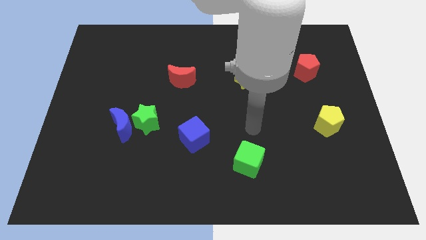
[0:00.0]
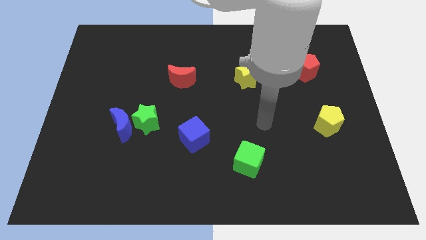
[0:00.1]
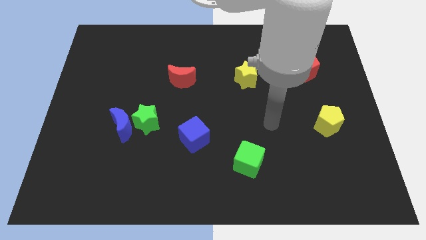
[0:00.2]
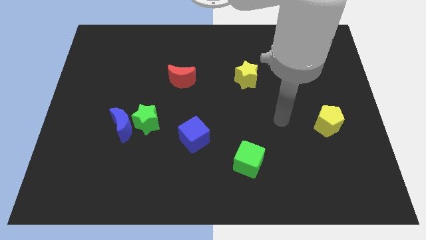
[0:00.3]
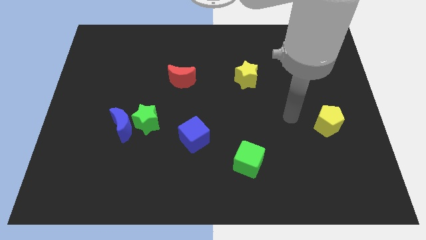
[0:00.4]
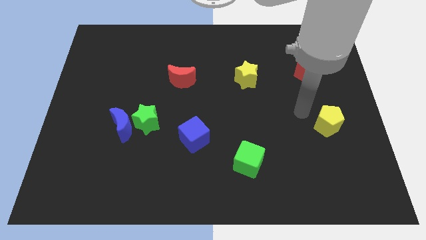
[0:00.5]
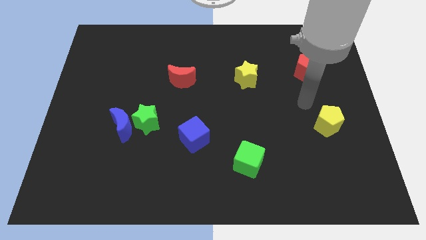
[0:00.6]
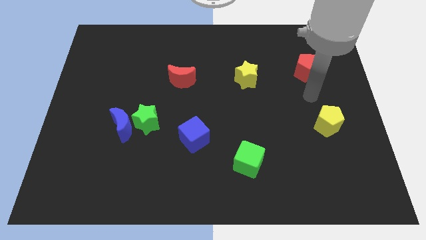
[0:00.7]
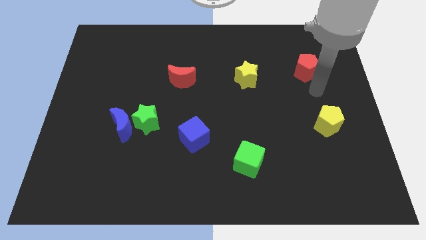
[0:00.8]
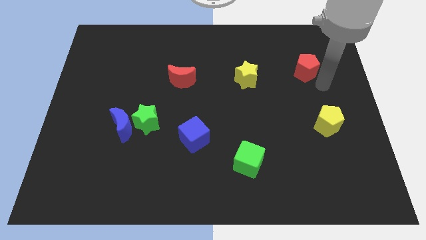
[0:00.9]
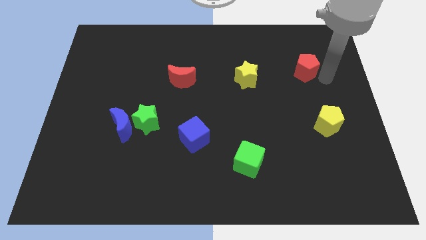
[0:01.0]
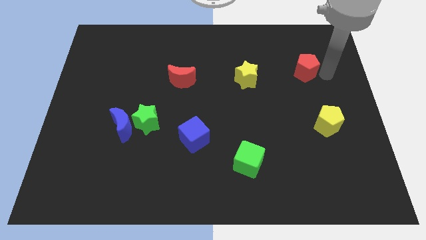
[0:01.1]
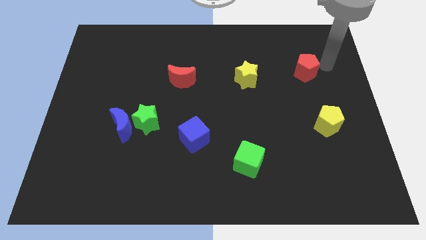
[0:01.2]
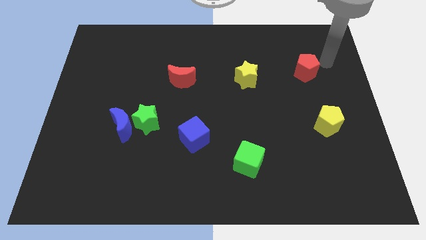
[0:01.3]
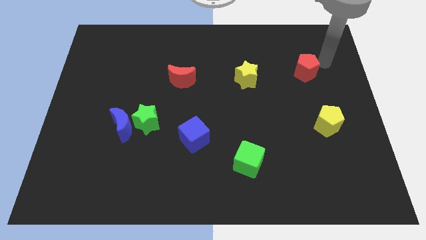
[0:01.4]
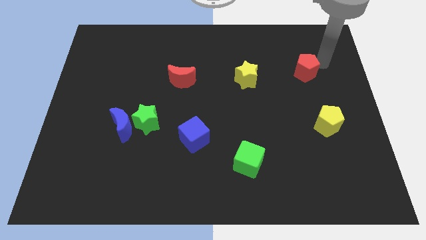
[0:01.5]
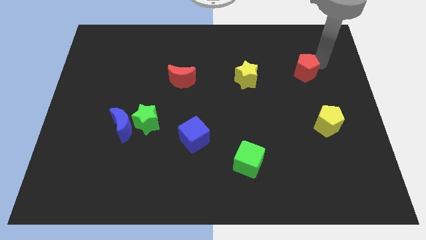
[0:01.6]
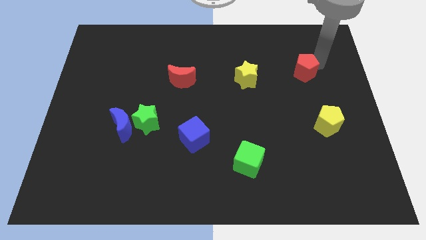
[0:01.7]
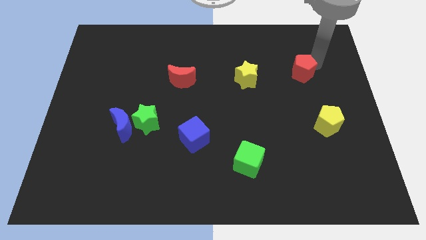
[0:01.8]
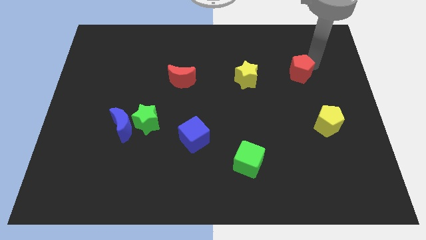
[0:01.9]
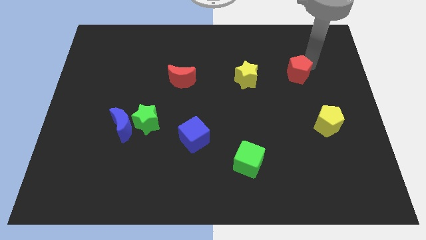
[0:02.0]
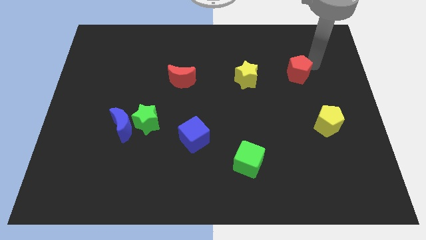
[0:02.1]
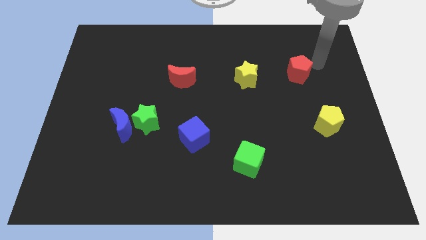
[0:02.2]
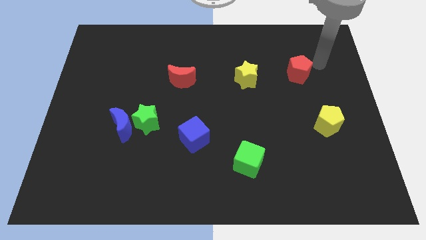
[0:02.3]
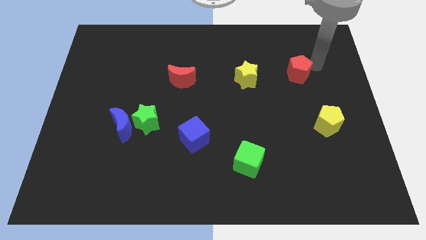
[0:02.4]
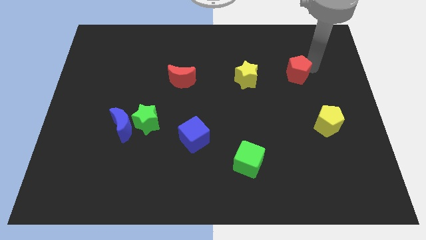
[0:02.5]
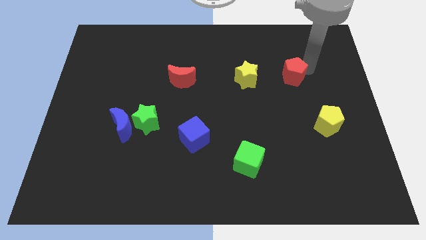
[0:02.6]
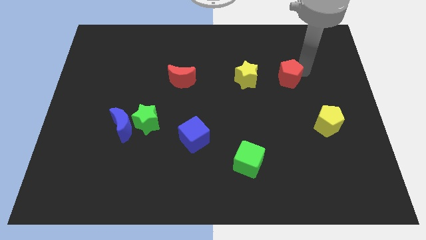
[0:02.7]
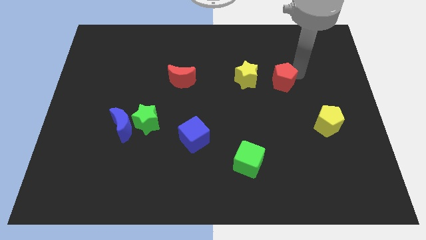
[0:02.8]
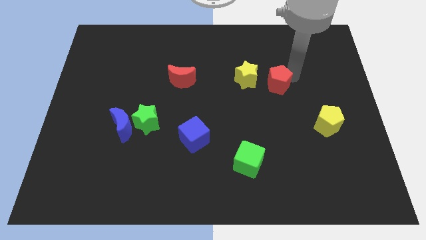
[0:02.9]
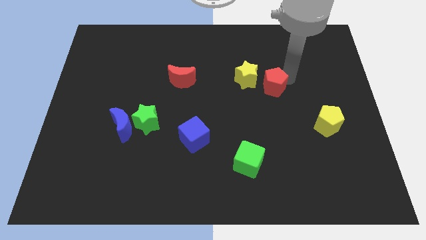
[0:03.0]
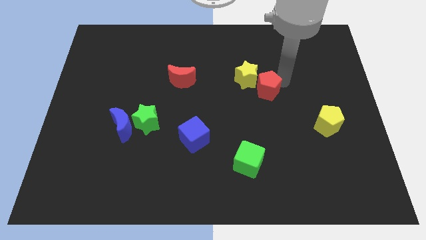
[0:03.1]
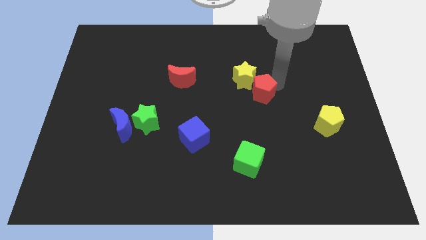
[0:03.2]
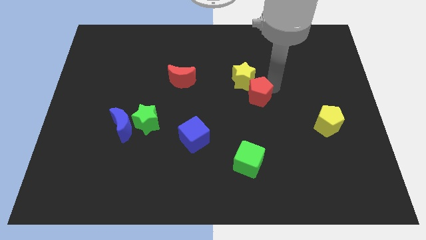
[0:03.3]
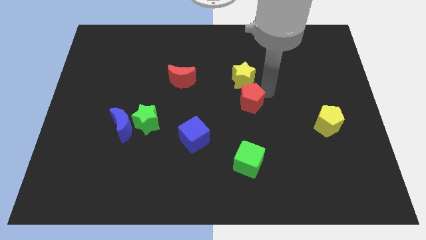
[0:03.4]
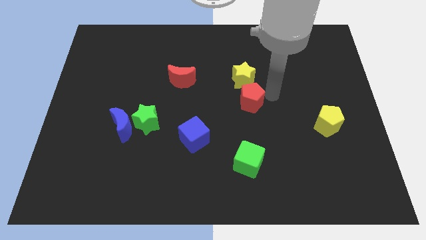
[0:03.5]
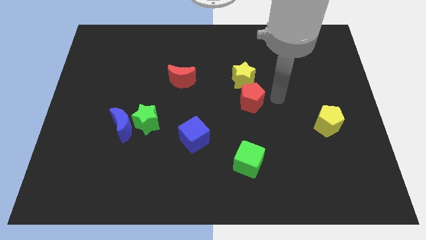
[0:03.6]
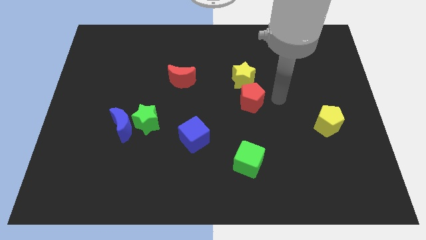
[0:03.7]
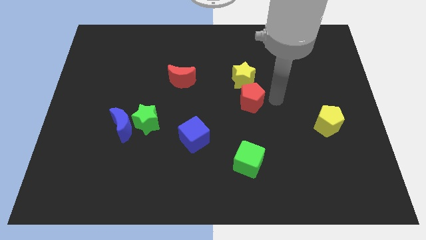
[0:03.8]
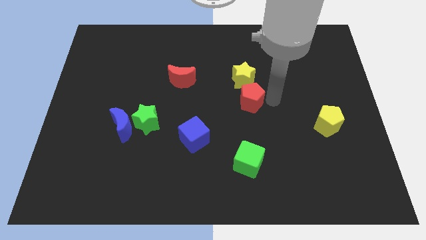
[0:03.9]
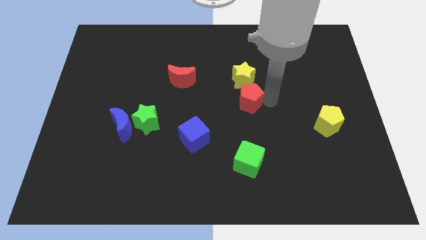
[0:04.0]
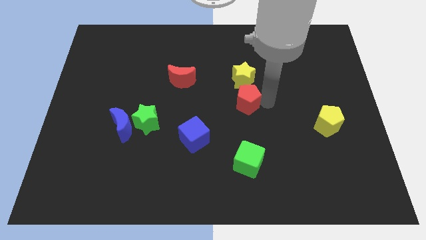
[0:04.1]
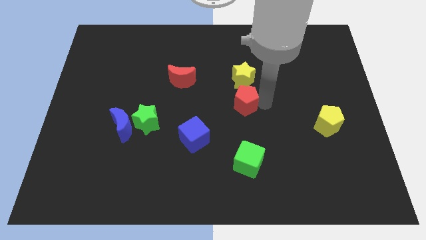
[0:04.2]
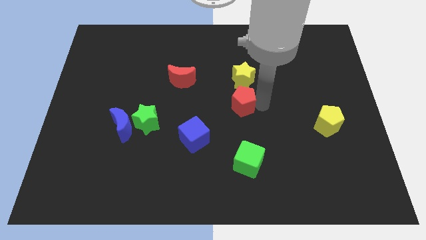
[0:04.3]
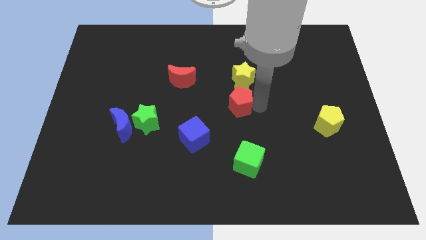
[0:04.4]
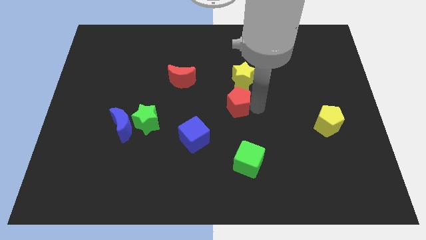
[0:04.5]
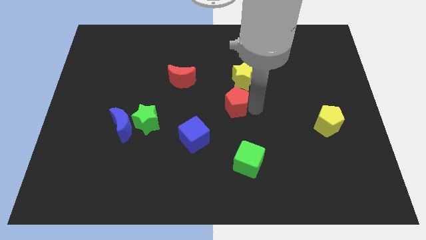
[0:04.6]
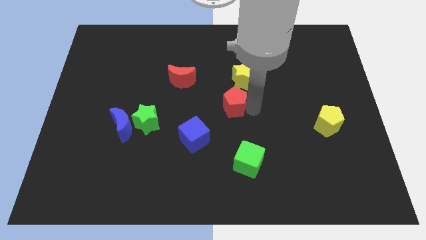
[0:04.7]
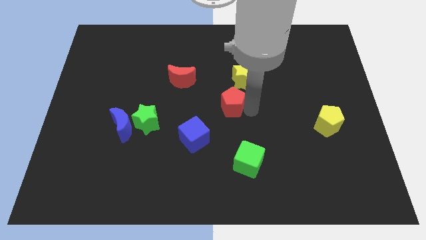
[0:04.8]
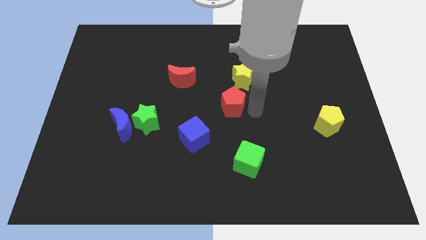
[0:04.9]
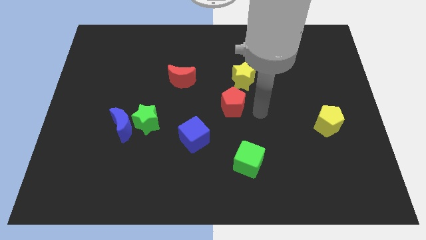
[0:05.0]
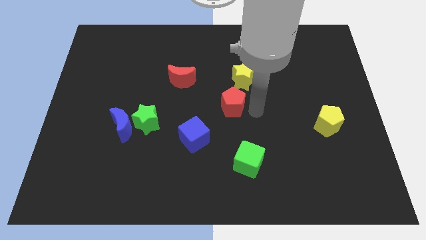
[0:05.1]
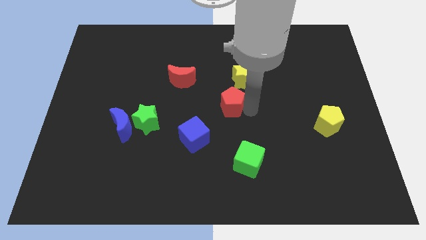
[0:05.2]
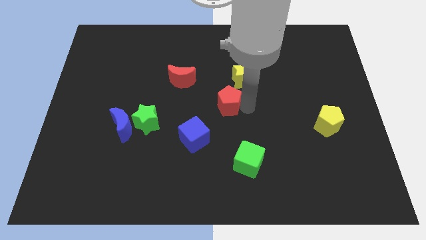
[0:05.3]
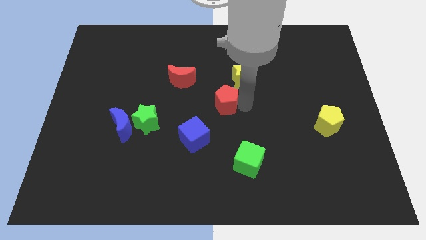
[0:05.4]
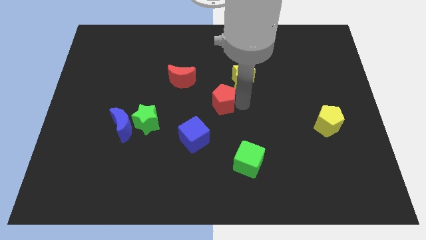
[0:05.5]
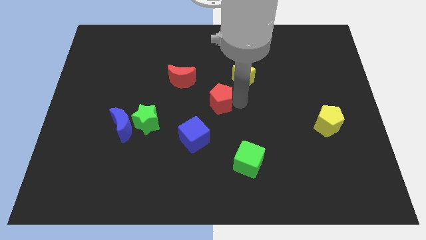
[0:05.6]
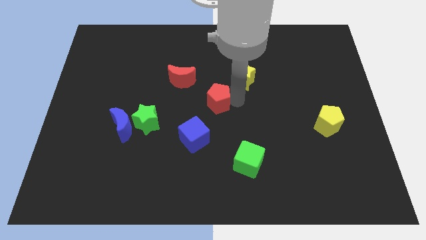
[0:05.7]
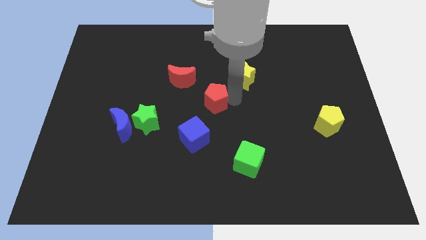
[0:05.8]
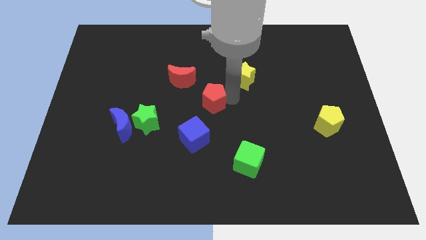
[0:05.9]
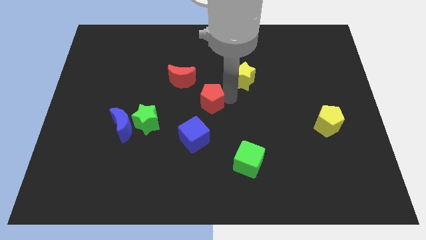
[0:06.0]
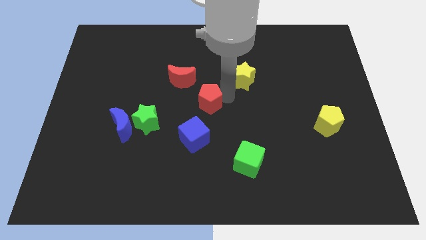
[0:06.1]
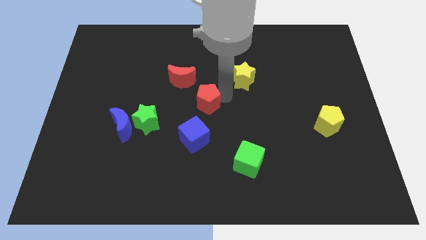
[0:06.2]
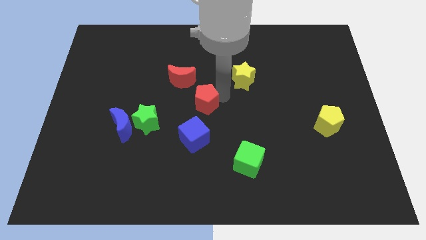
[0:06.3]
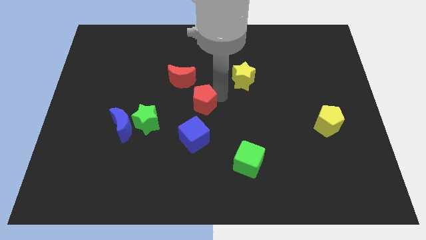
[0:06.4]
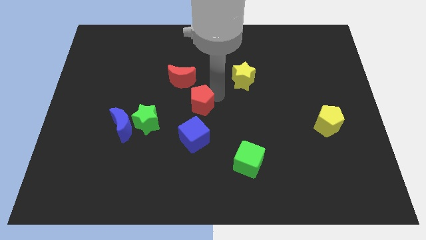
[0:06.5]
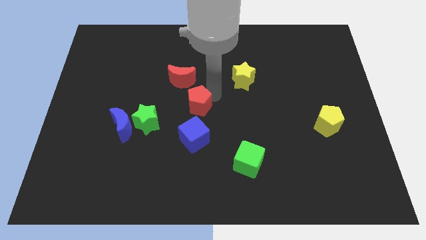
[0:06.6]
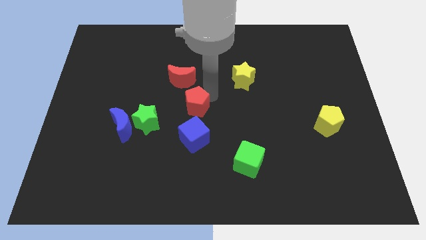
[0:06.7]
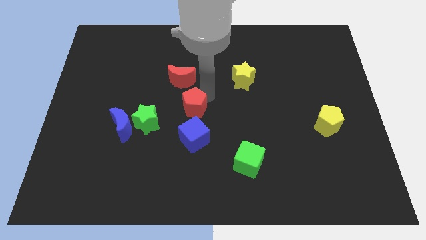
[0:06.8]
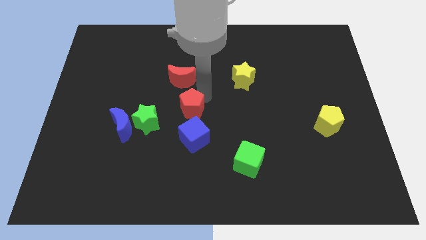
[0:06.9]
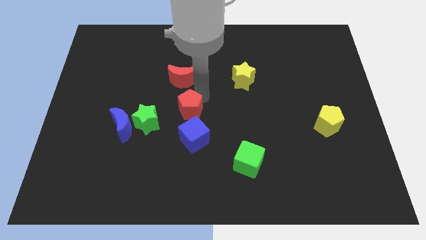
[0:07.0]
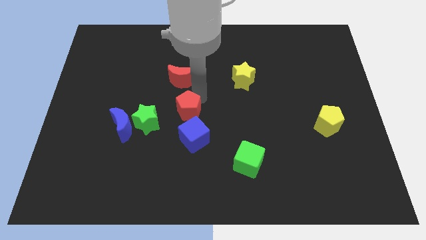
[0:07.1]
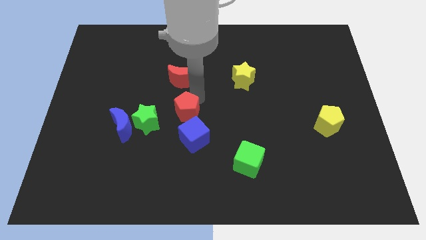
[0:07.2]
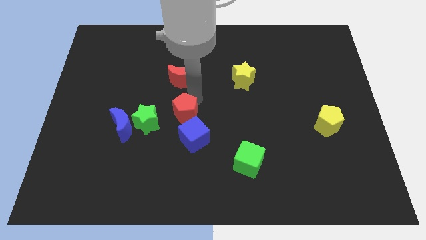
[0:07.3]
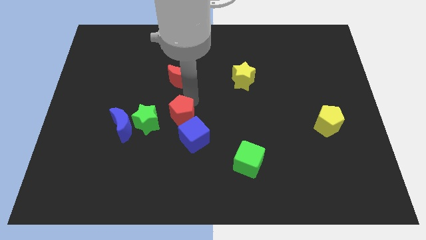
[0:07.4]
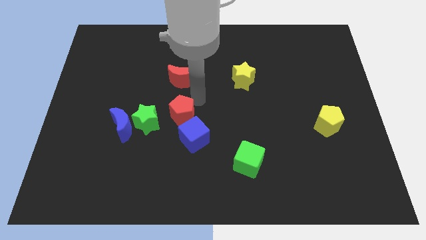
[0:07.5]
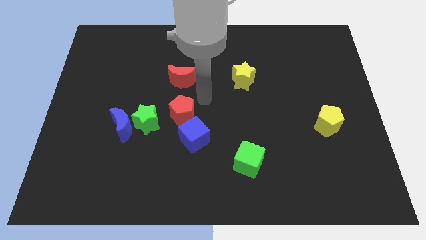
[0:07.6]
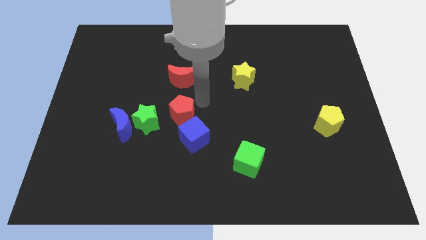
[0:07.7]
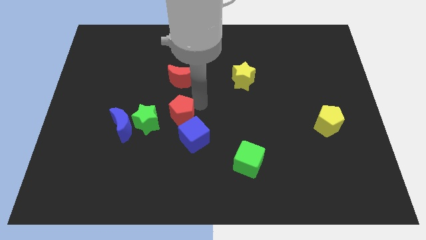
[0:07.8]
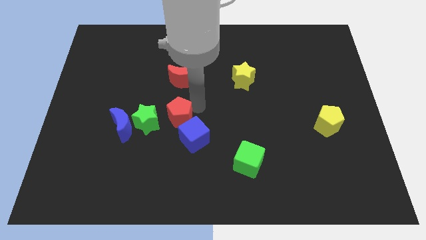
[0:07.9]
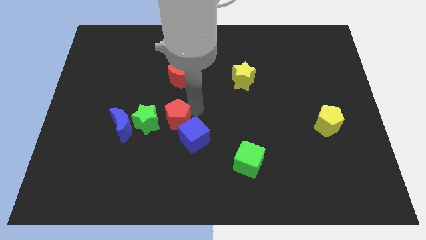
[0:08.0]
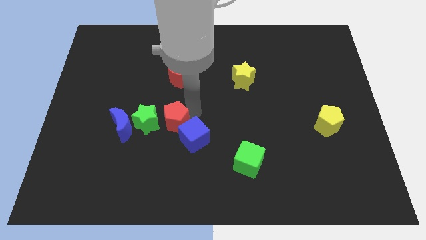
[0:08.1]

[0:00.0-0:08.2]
put the red pentagon just left of the blue cube
